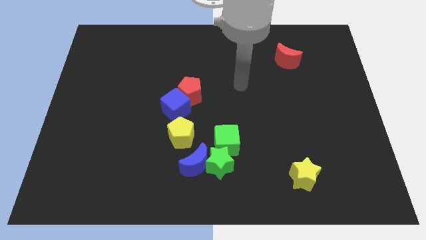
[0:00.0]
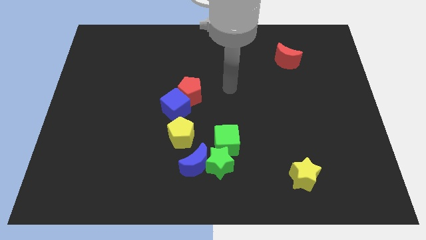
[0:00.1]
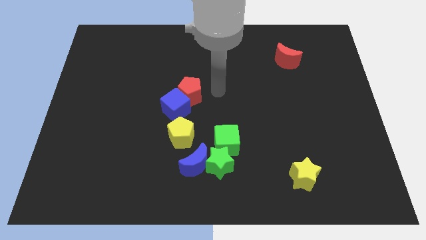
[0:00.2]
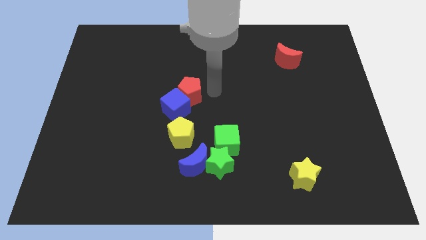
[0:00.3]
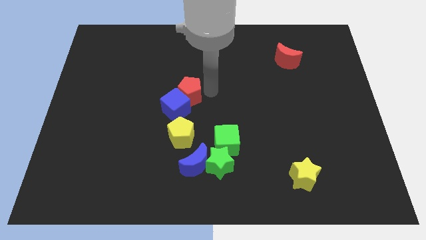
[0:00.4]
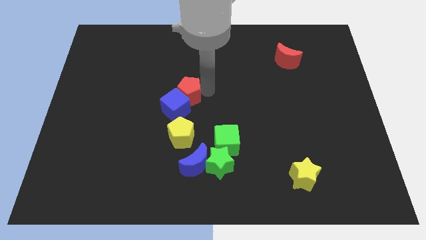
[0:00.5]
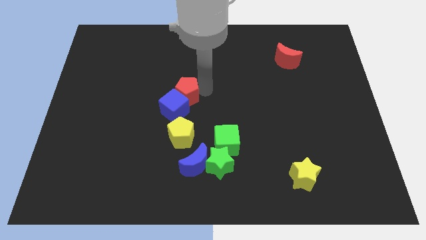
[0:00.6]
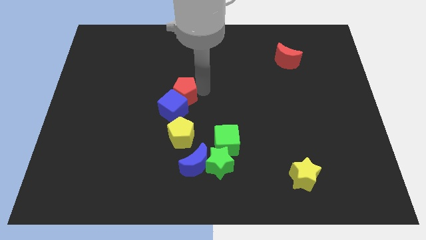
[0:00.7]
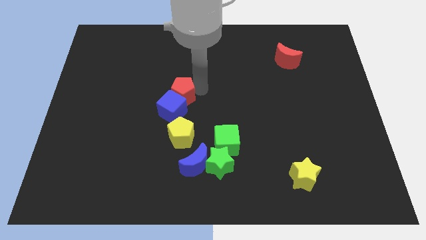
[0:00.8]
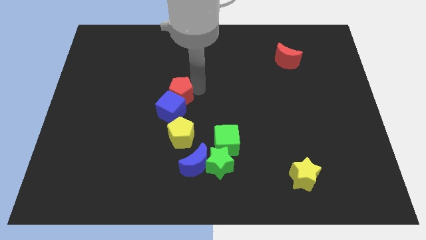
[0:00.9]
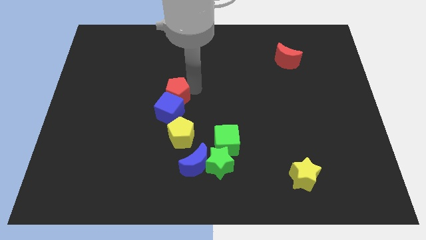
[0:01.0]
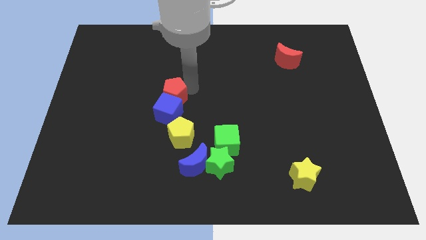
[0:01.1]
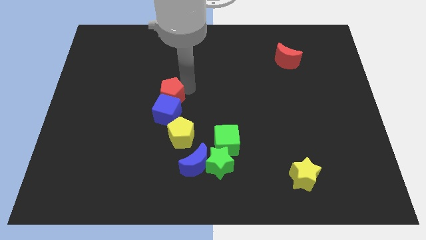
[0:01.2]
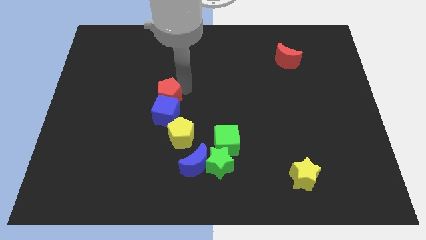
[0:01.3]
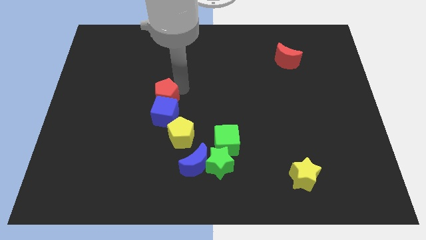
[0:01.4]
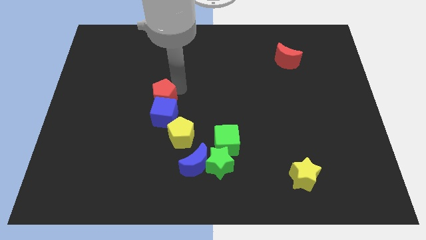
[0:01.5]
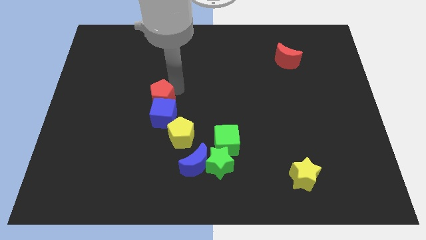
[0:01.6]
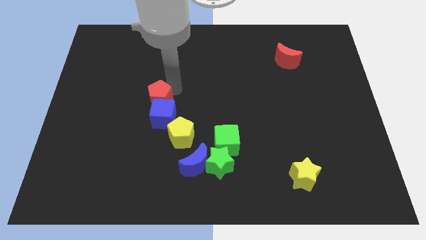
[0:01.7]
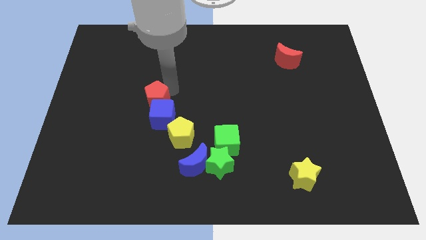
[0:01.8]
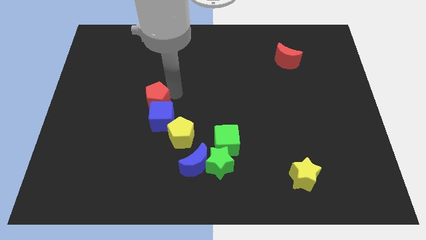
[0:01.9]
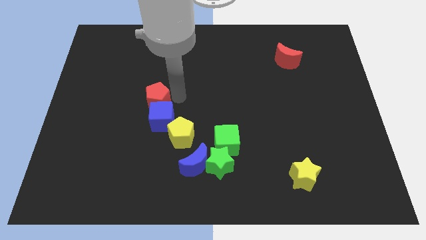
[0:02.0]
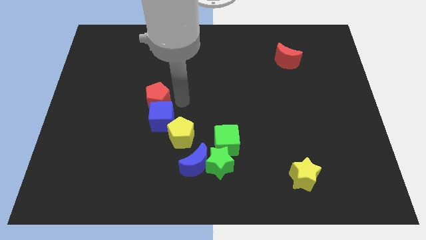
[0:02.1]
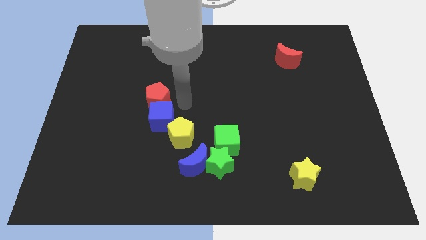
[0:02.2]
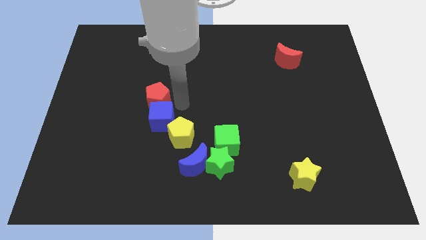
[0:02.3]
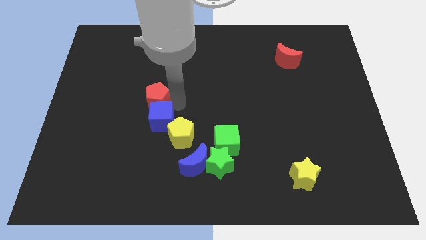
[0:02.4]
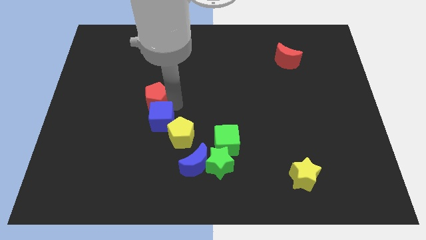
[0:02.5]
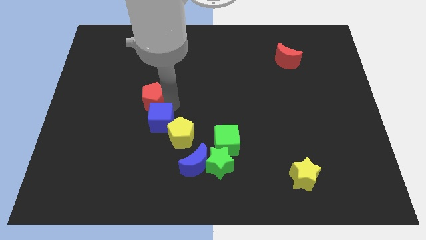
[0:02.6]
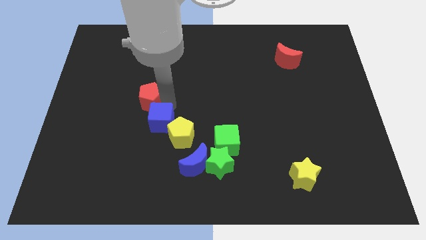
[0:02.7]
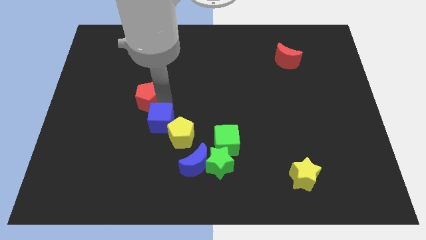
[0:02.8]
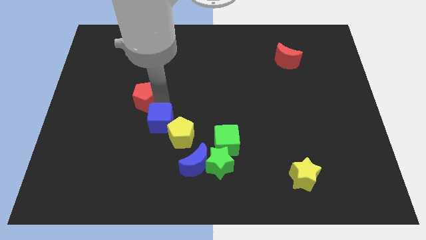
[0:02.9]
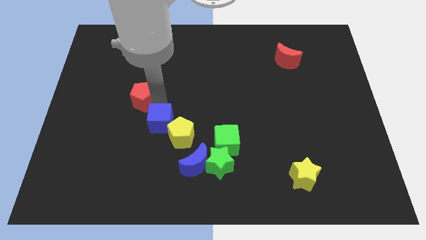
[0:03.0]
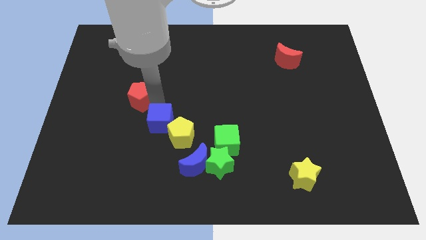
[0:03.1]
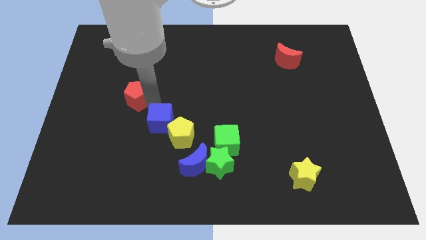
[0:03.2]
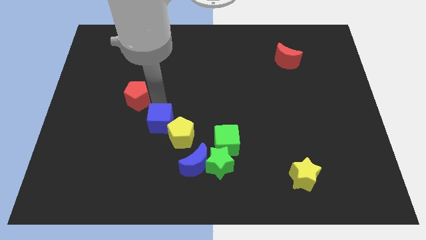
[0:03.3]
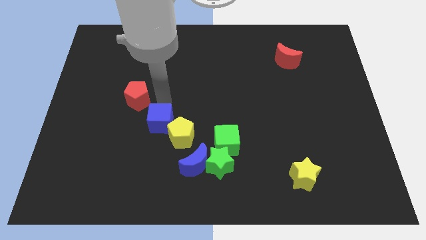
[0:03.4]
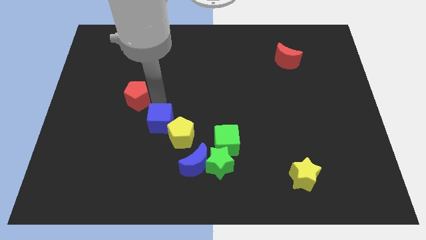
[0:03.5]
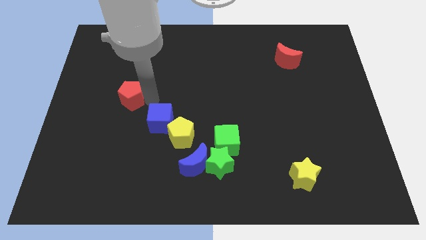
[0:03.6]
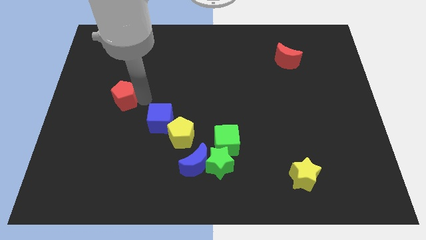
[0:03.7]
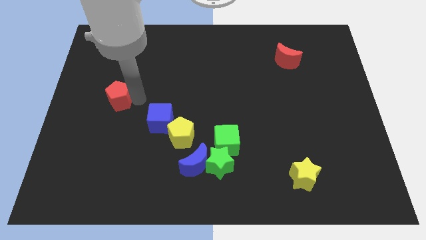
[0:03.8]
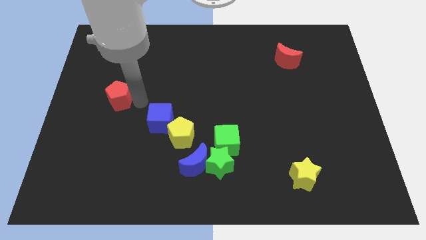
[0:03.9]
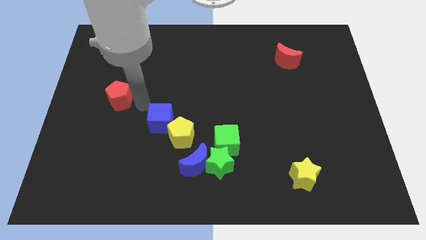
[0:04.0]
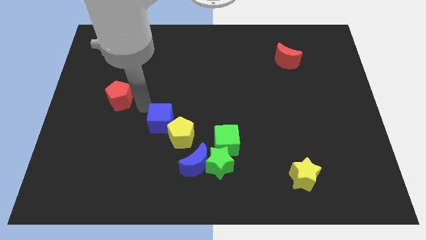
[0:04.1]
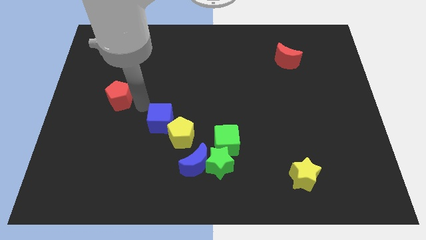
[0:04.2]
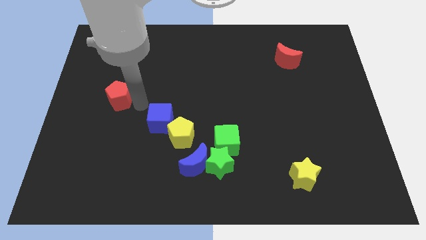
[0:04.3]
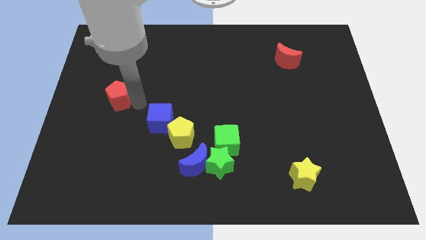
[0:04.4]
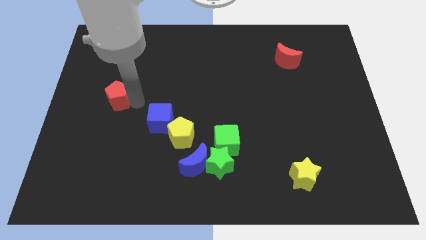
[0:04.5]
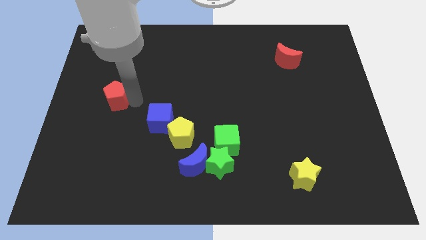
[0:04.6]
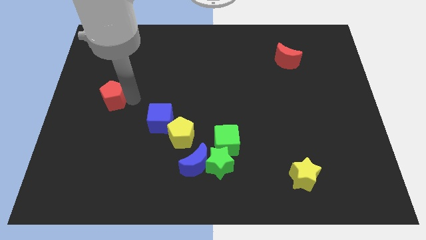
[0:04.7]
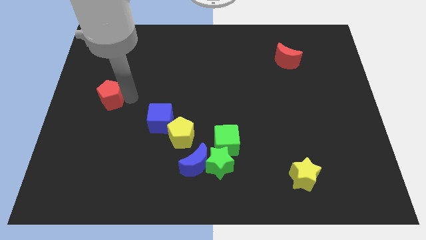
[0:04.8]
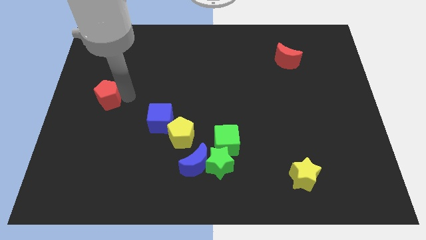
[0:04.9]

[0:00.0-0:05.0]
push the red pentagon to the left side of the board
